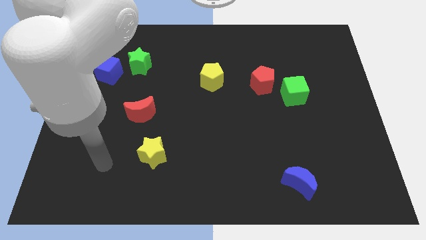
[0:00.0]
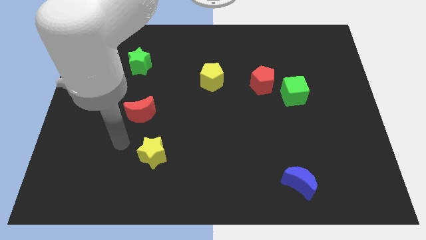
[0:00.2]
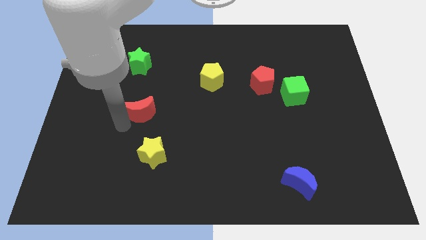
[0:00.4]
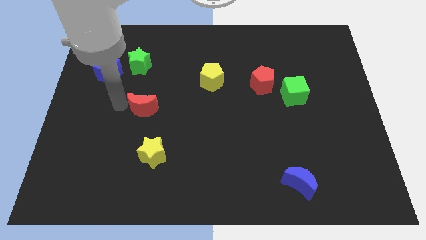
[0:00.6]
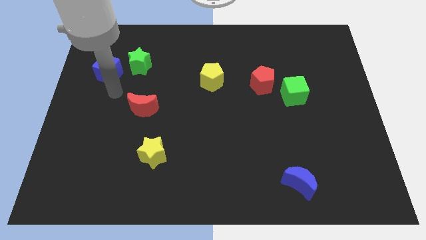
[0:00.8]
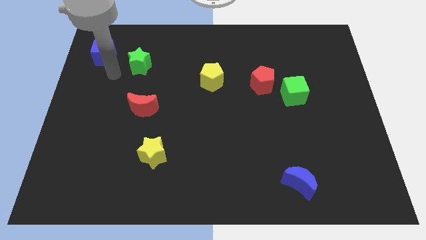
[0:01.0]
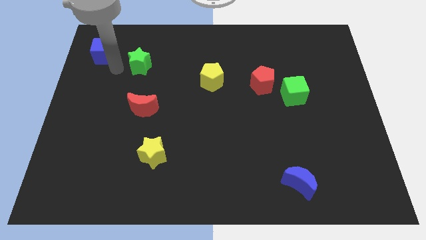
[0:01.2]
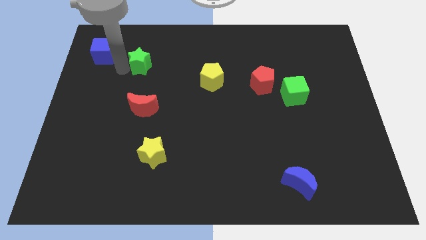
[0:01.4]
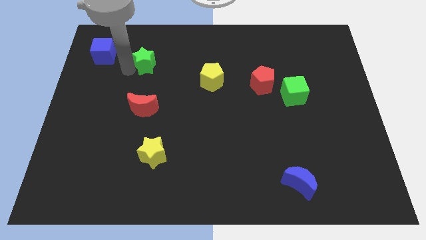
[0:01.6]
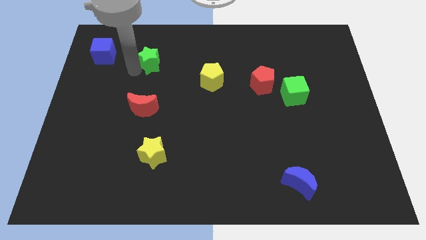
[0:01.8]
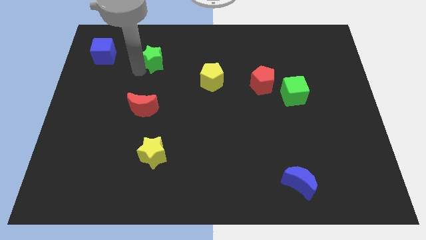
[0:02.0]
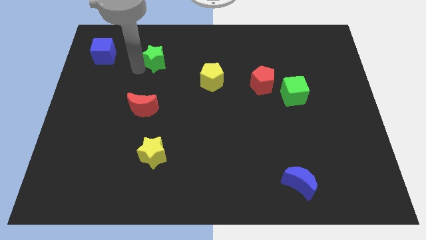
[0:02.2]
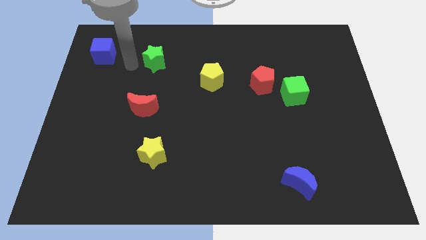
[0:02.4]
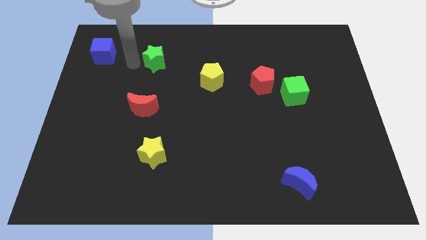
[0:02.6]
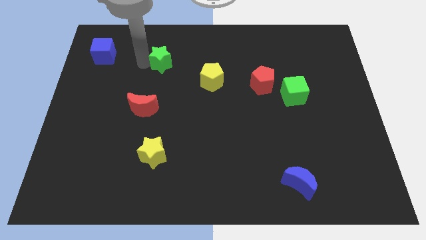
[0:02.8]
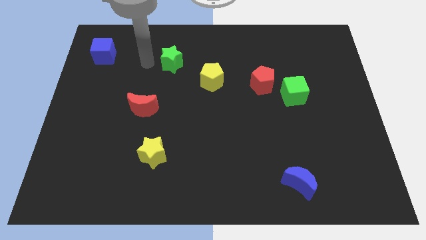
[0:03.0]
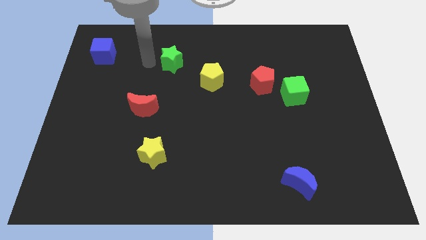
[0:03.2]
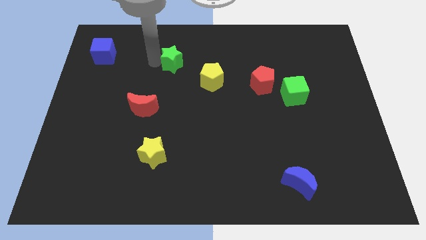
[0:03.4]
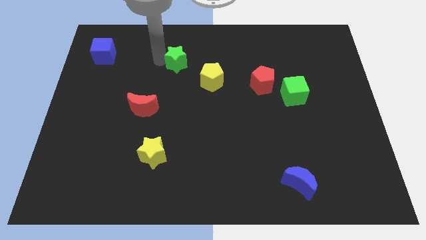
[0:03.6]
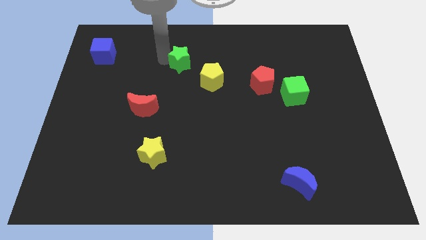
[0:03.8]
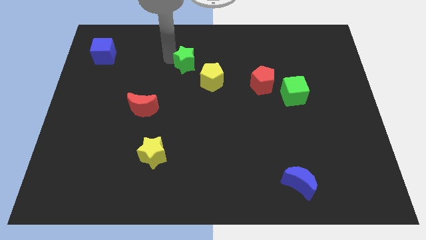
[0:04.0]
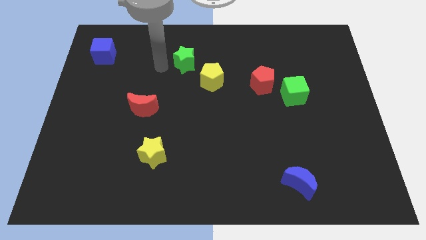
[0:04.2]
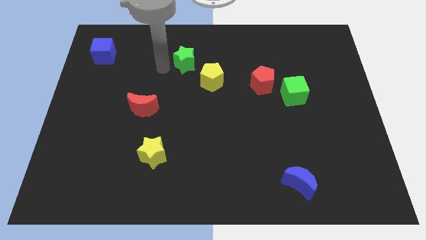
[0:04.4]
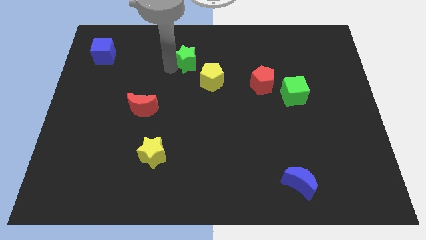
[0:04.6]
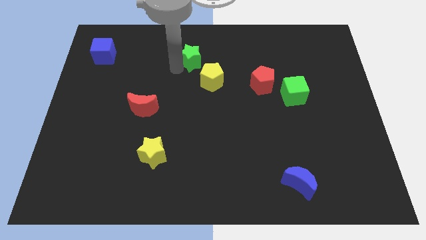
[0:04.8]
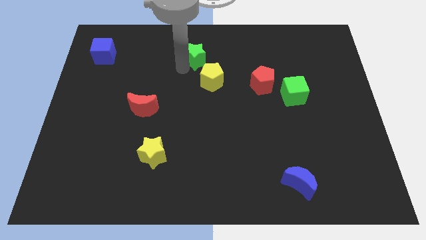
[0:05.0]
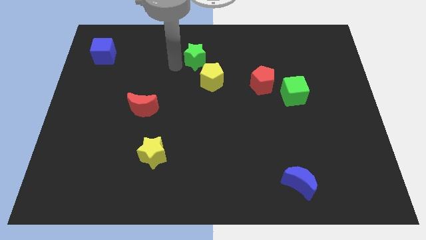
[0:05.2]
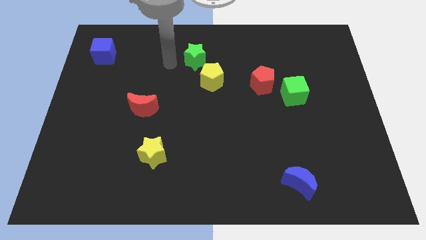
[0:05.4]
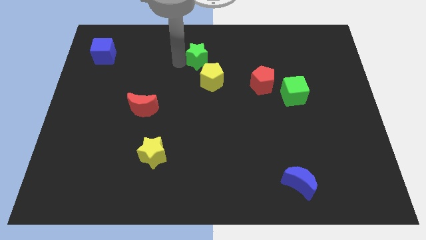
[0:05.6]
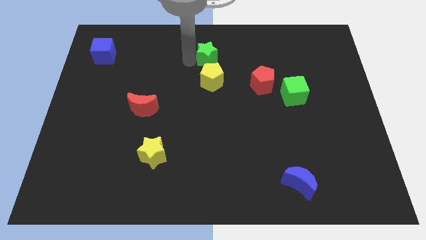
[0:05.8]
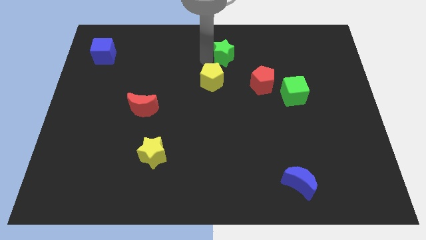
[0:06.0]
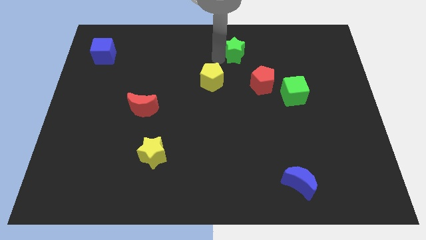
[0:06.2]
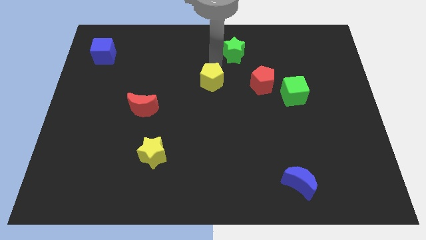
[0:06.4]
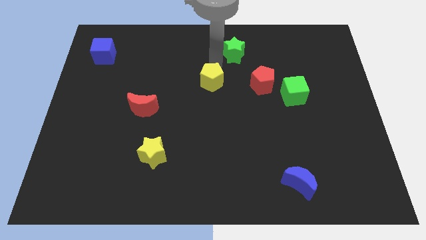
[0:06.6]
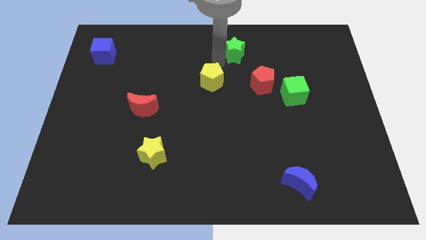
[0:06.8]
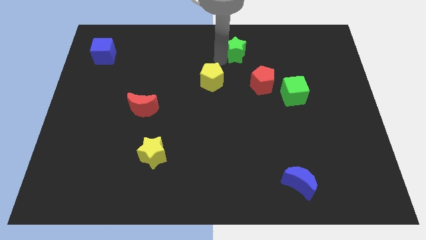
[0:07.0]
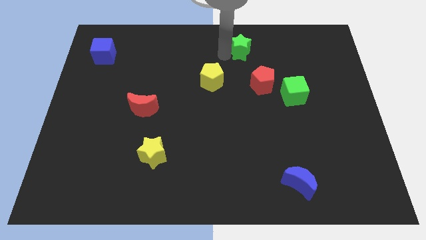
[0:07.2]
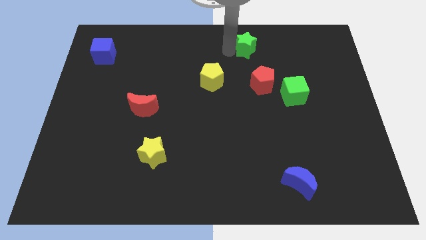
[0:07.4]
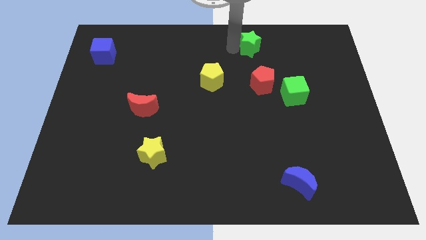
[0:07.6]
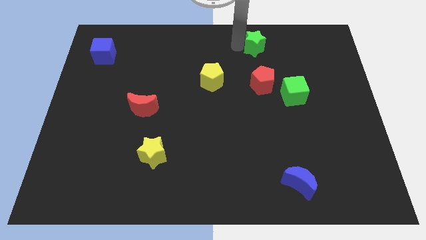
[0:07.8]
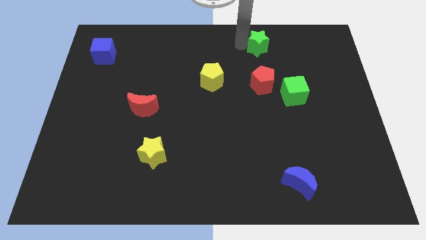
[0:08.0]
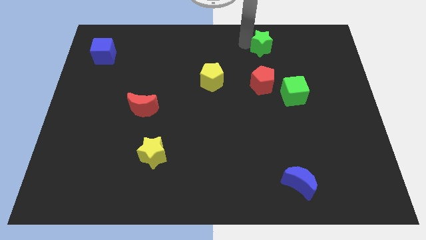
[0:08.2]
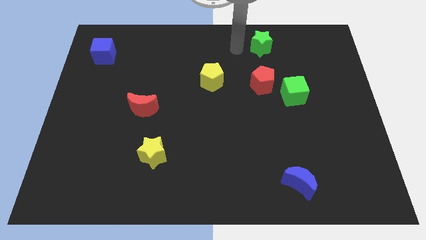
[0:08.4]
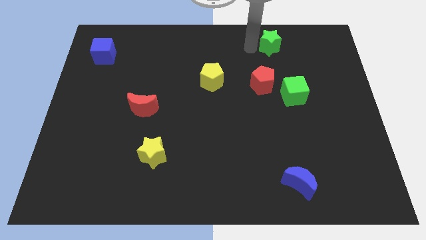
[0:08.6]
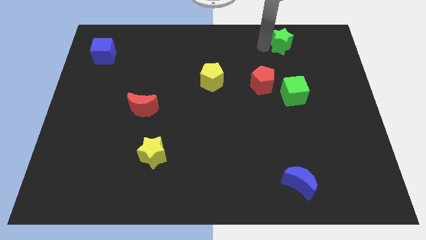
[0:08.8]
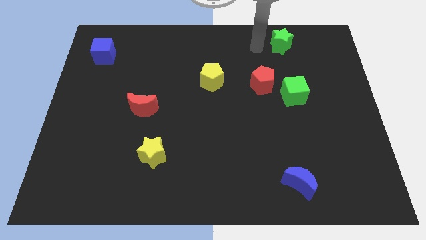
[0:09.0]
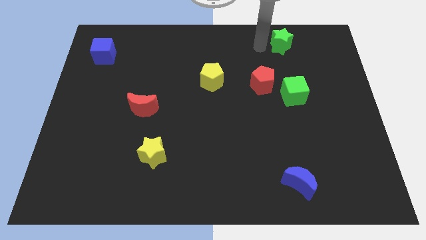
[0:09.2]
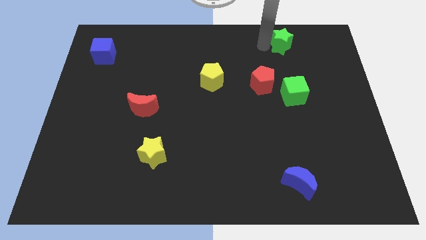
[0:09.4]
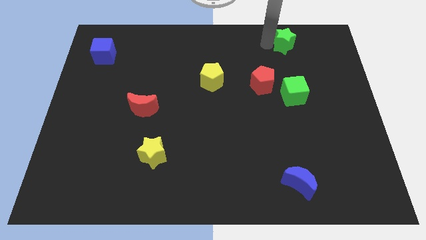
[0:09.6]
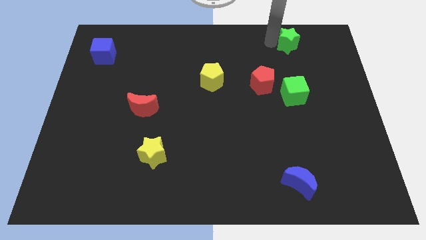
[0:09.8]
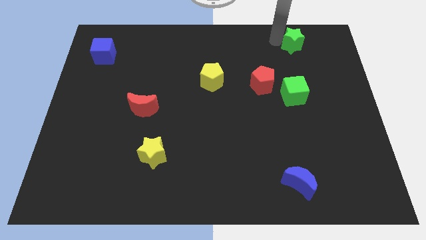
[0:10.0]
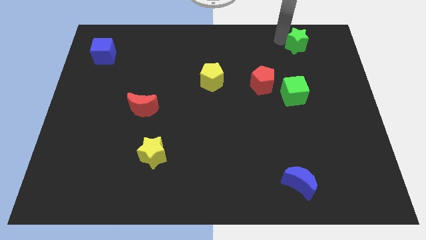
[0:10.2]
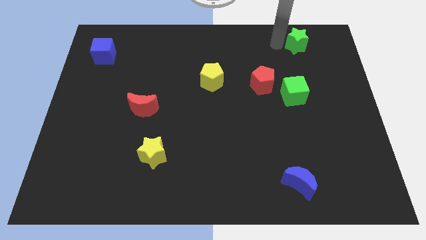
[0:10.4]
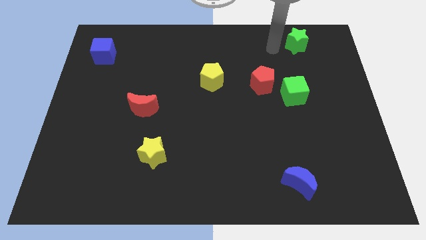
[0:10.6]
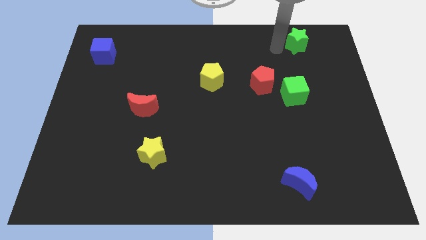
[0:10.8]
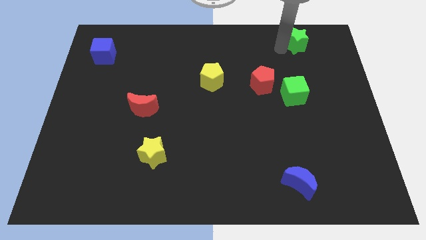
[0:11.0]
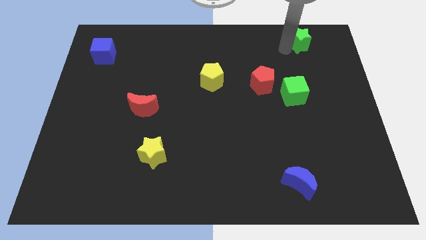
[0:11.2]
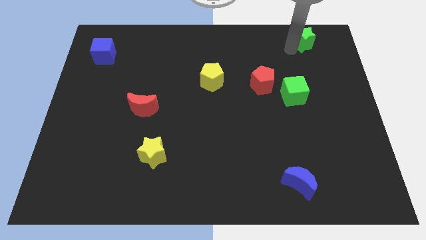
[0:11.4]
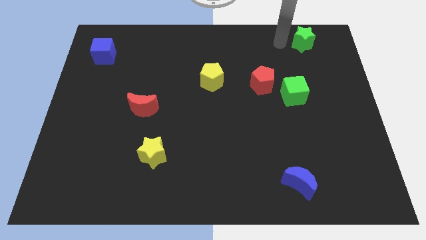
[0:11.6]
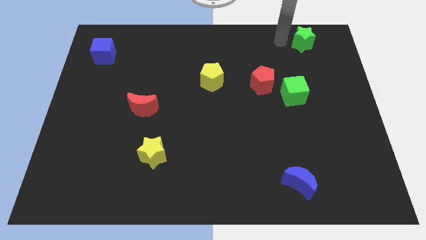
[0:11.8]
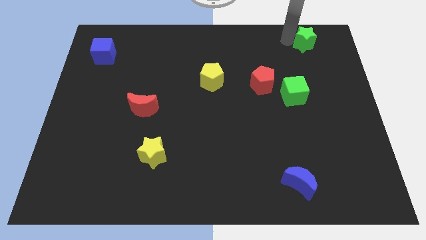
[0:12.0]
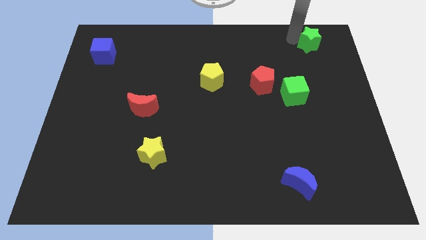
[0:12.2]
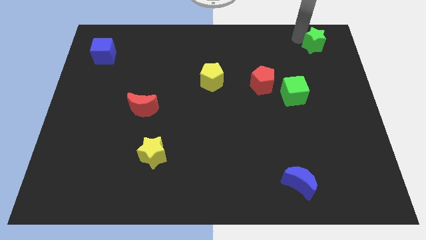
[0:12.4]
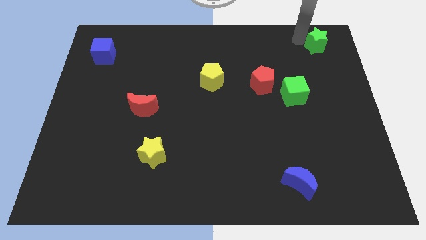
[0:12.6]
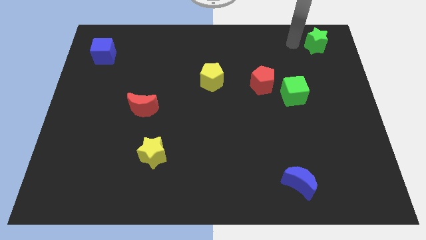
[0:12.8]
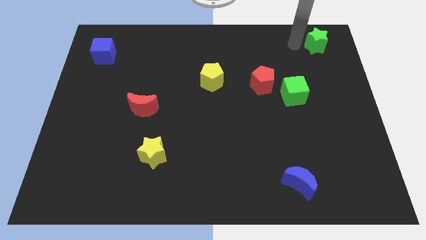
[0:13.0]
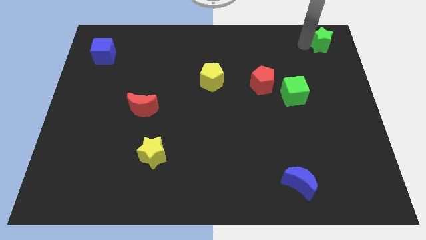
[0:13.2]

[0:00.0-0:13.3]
move the green star to the top right corner

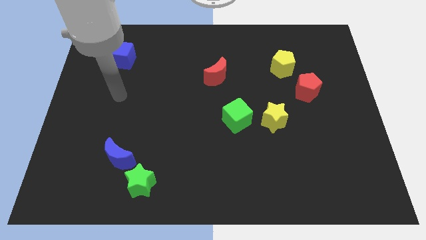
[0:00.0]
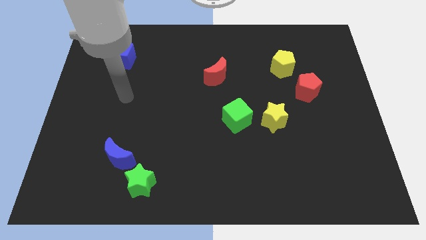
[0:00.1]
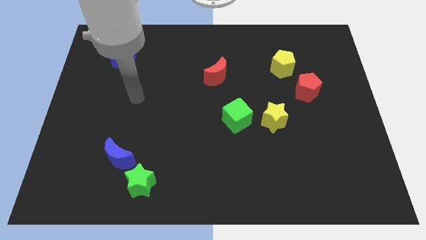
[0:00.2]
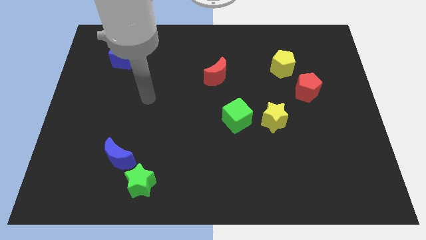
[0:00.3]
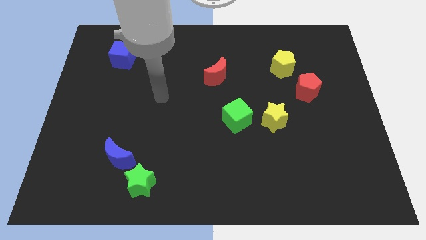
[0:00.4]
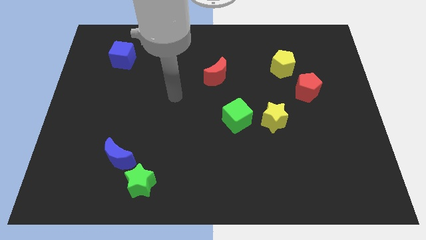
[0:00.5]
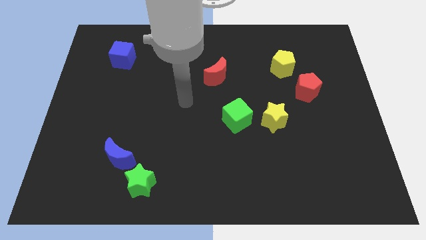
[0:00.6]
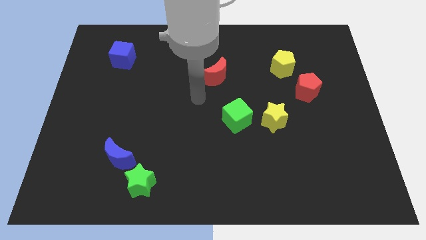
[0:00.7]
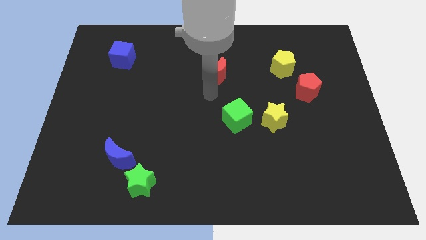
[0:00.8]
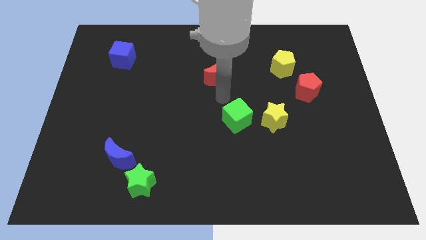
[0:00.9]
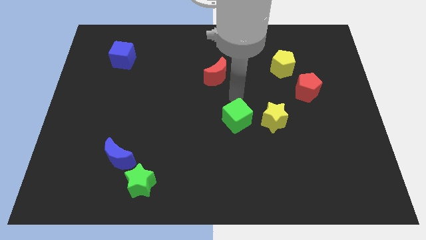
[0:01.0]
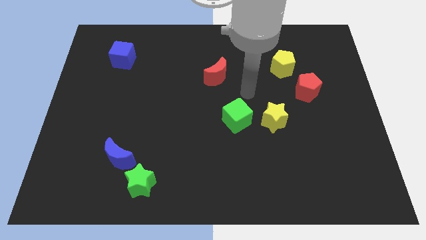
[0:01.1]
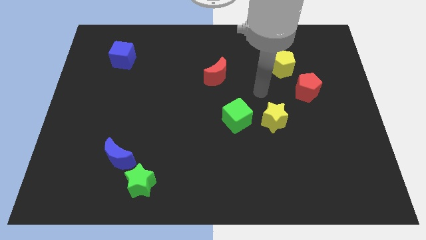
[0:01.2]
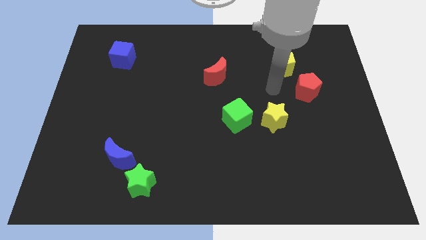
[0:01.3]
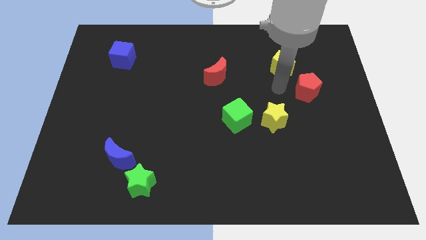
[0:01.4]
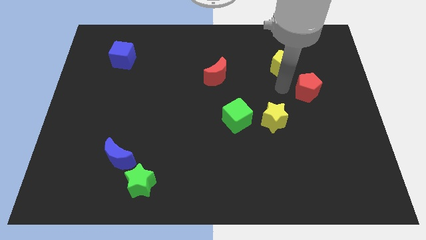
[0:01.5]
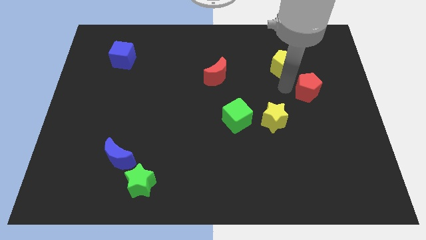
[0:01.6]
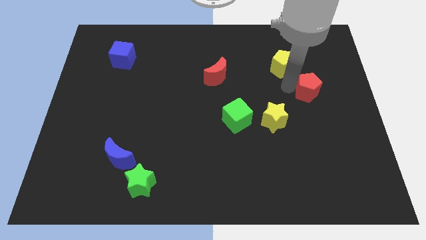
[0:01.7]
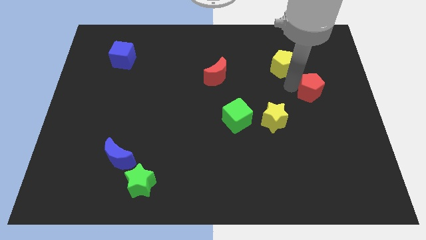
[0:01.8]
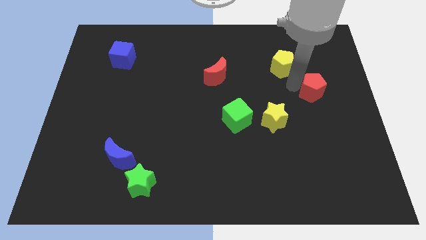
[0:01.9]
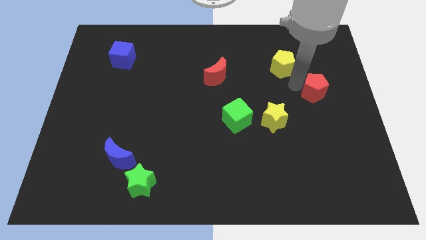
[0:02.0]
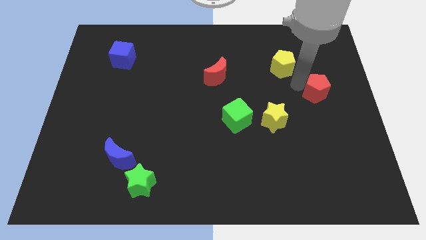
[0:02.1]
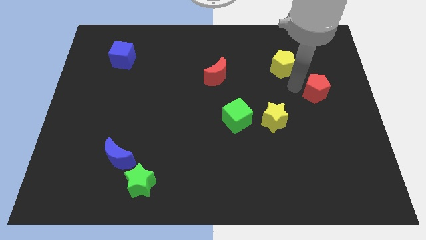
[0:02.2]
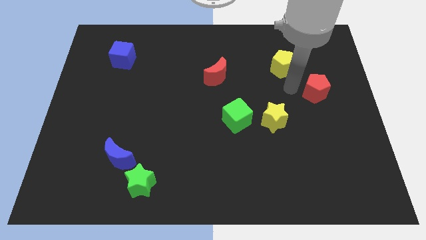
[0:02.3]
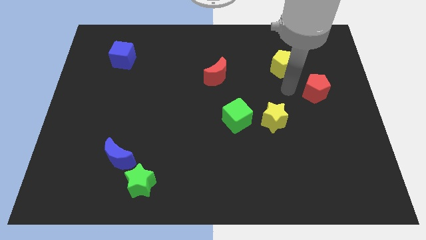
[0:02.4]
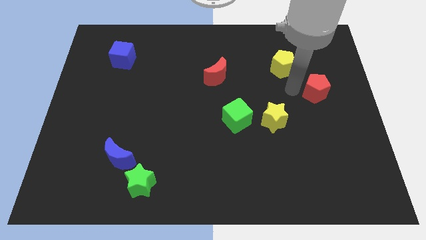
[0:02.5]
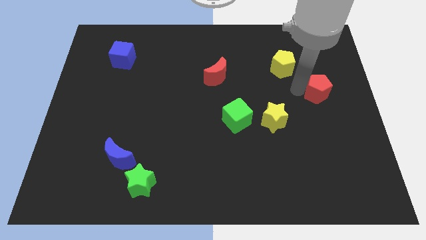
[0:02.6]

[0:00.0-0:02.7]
move the red pentagon to the center right
